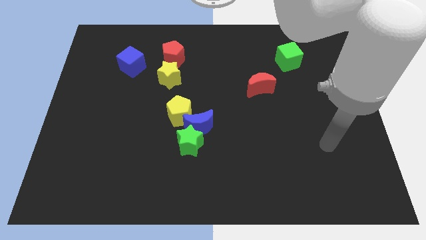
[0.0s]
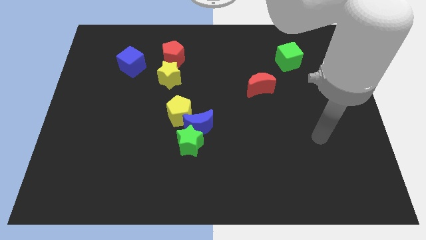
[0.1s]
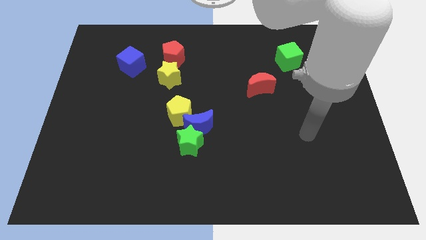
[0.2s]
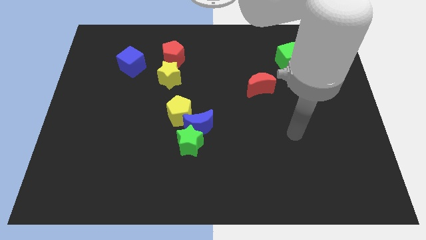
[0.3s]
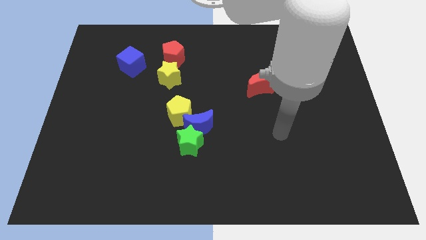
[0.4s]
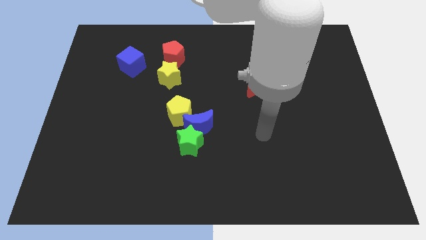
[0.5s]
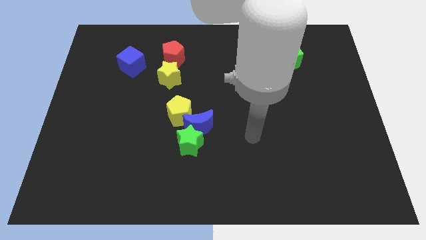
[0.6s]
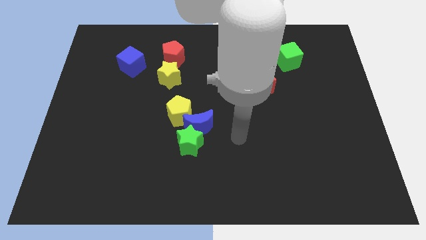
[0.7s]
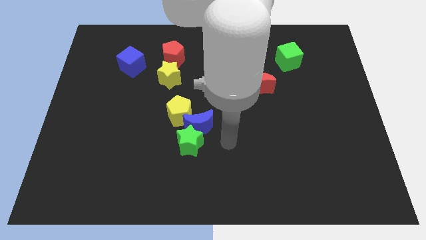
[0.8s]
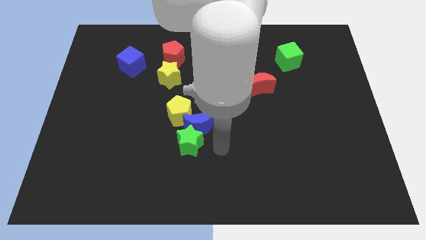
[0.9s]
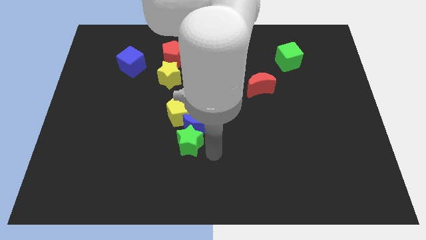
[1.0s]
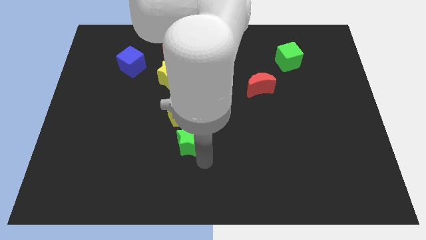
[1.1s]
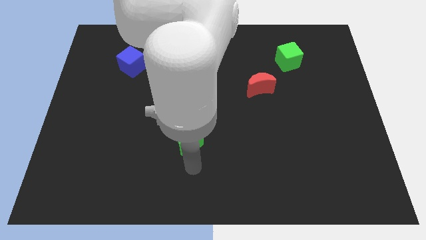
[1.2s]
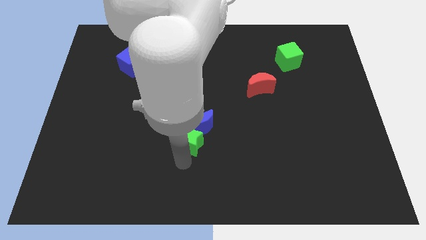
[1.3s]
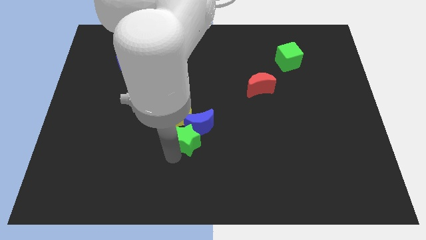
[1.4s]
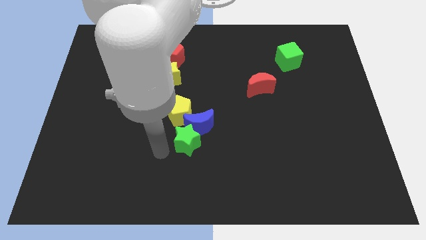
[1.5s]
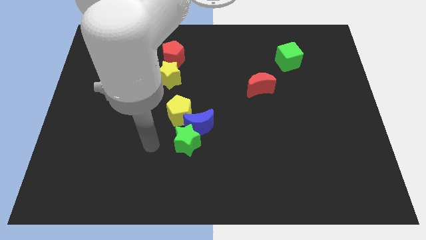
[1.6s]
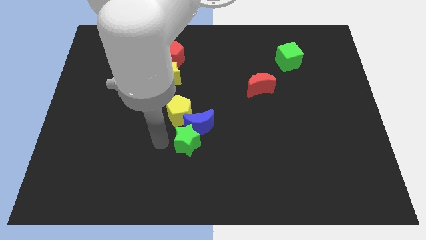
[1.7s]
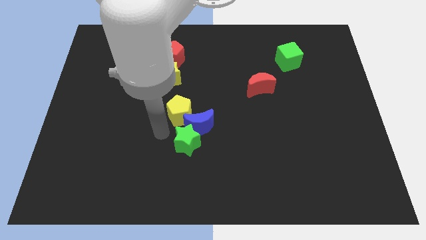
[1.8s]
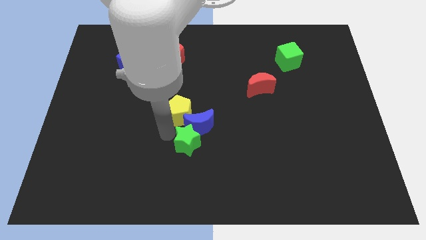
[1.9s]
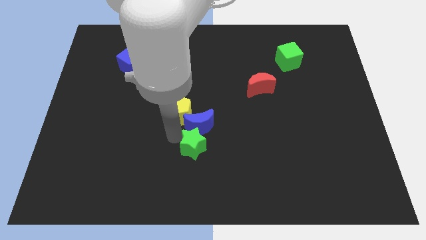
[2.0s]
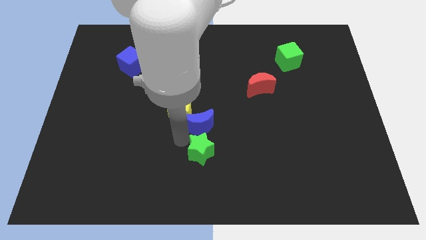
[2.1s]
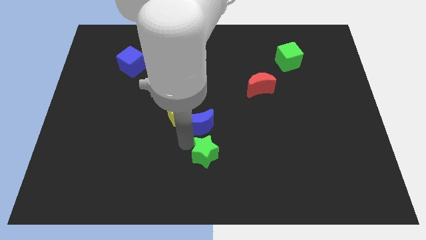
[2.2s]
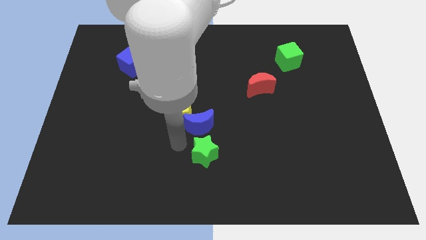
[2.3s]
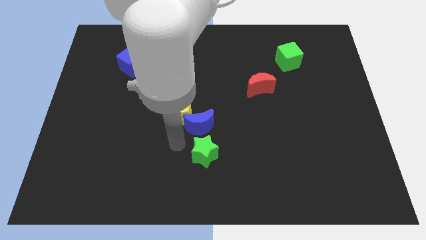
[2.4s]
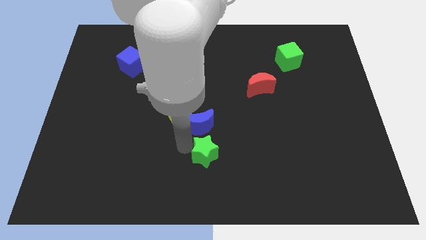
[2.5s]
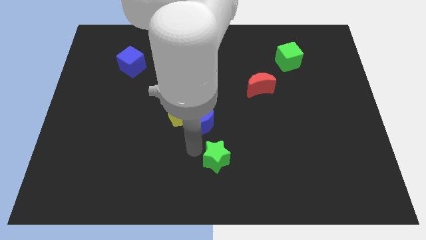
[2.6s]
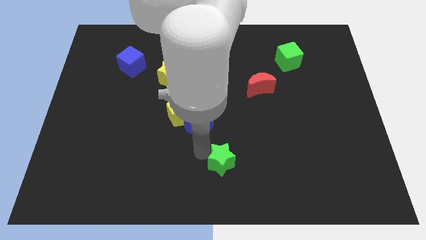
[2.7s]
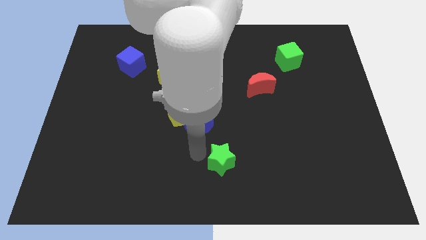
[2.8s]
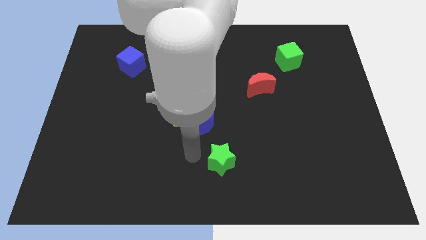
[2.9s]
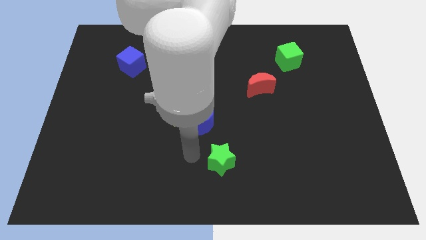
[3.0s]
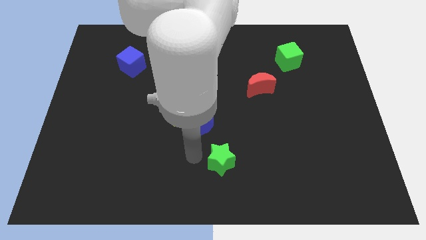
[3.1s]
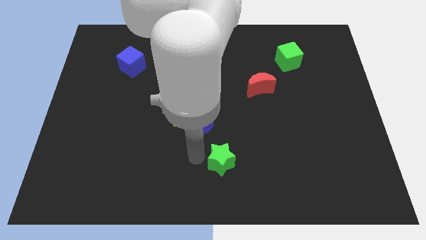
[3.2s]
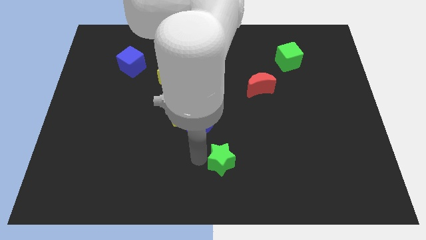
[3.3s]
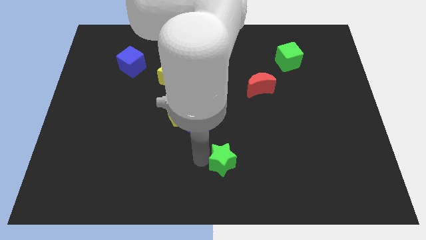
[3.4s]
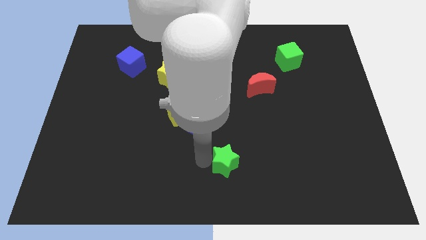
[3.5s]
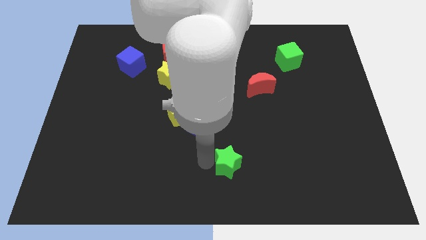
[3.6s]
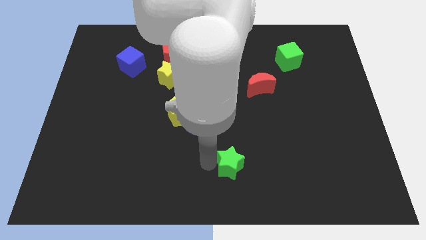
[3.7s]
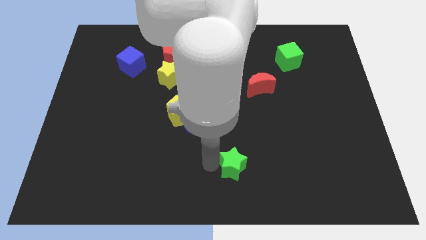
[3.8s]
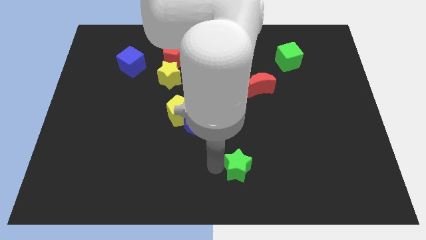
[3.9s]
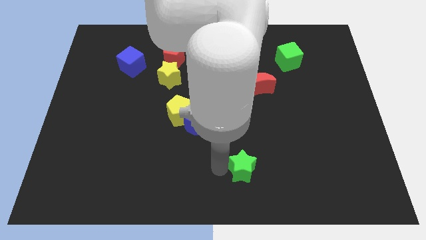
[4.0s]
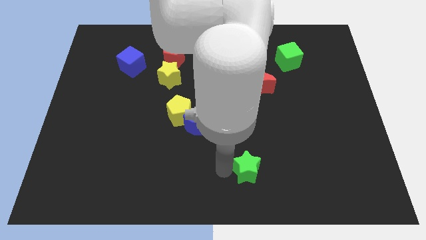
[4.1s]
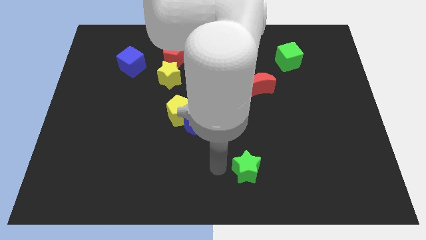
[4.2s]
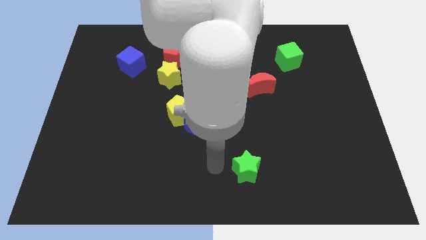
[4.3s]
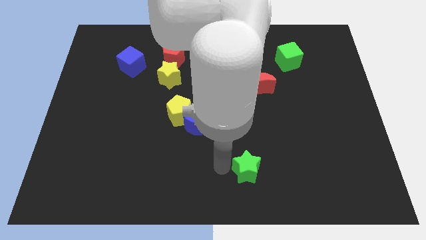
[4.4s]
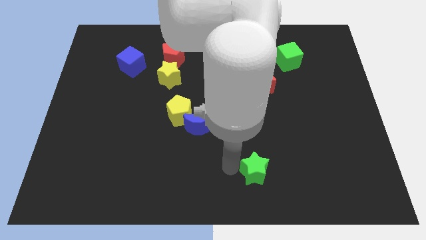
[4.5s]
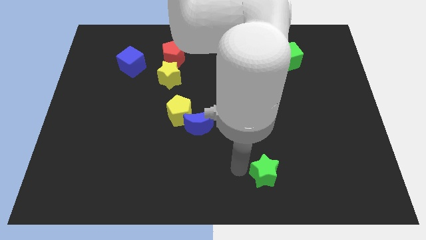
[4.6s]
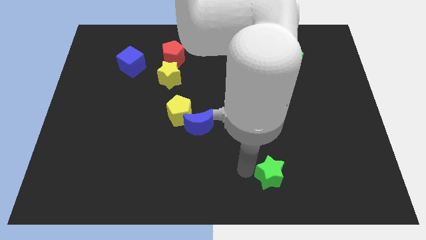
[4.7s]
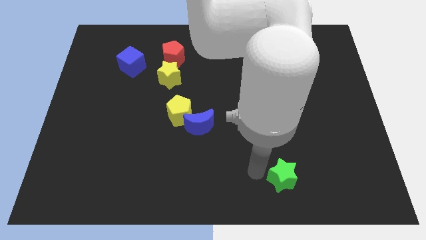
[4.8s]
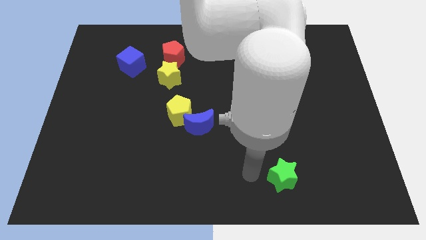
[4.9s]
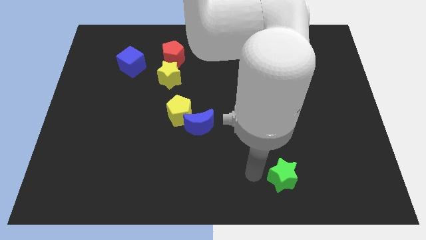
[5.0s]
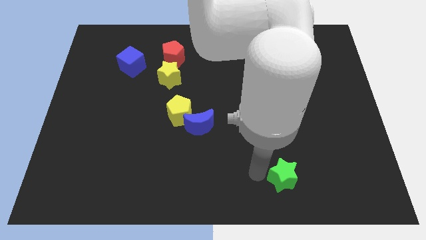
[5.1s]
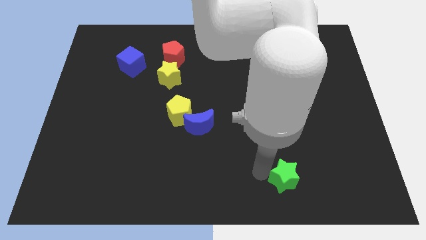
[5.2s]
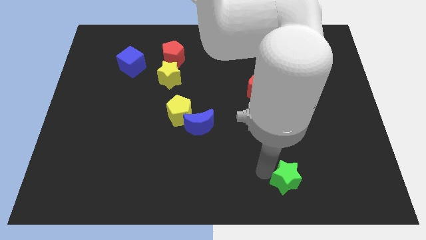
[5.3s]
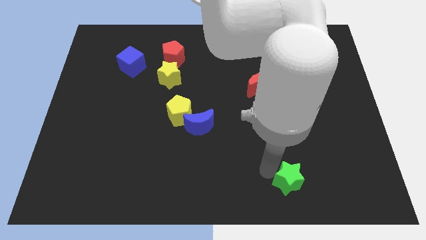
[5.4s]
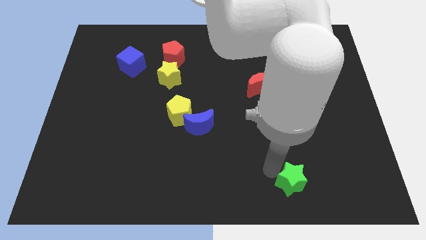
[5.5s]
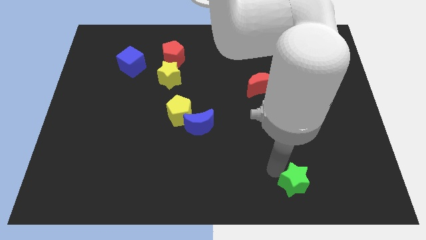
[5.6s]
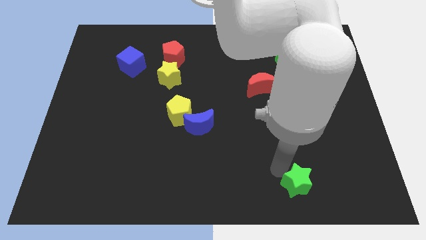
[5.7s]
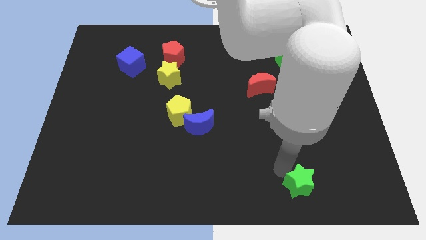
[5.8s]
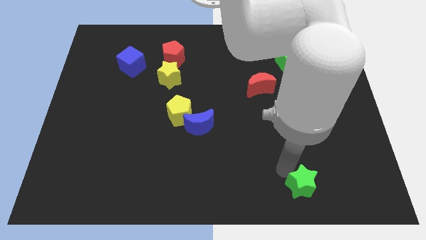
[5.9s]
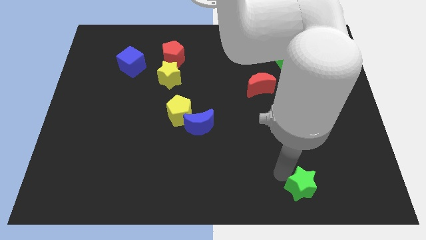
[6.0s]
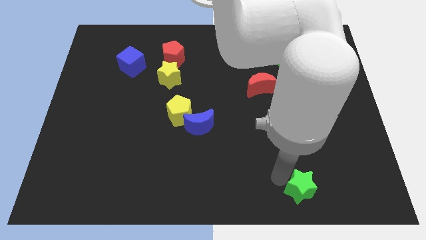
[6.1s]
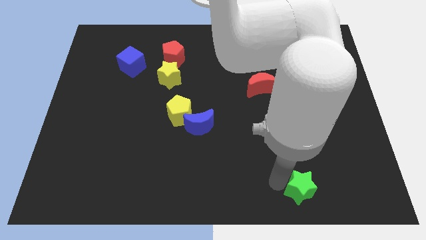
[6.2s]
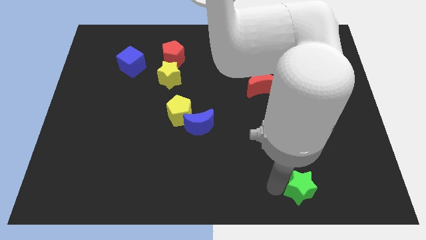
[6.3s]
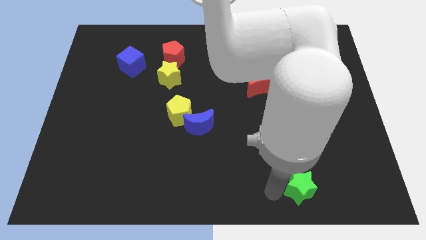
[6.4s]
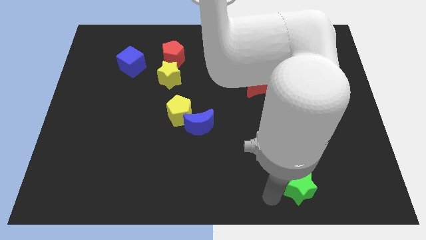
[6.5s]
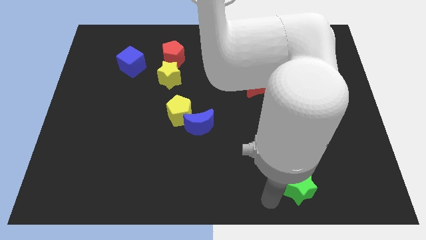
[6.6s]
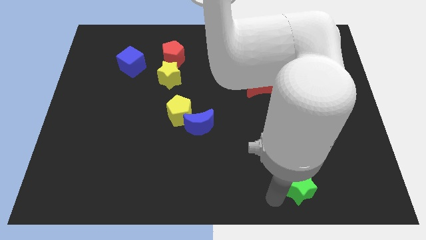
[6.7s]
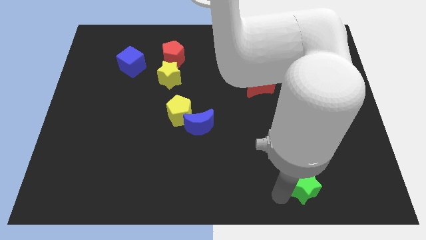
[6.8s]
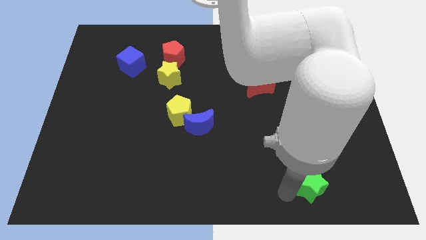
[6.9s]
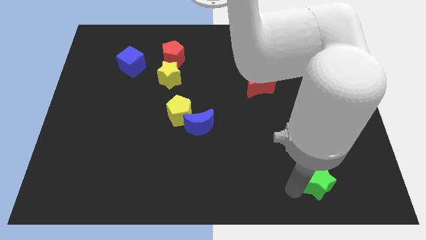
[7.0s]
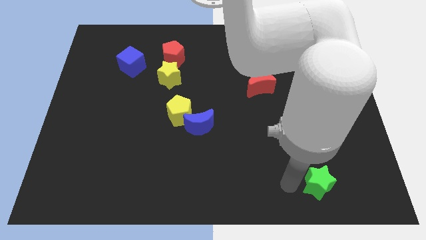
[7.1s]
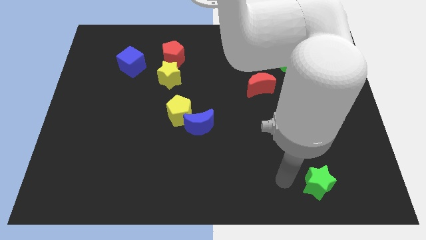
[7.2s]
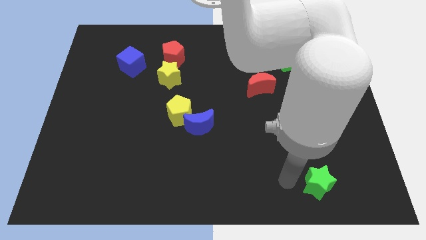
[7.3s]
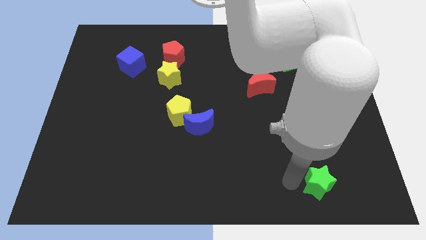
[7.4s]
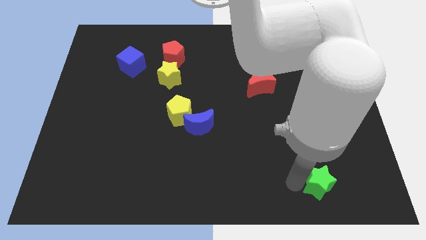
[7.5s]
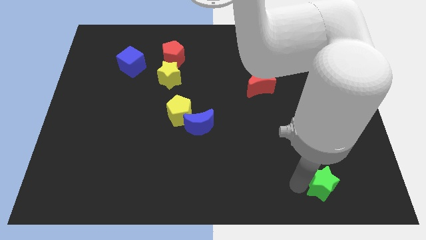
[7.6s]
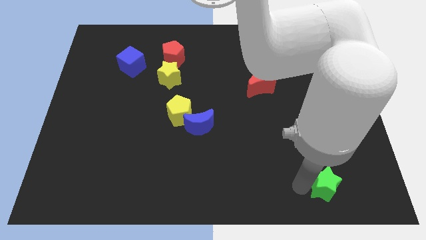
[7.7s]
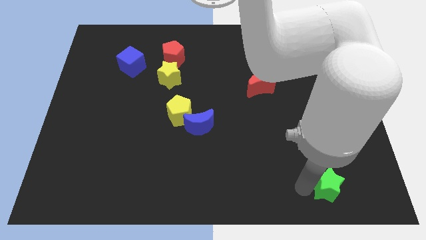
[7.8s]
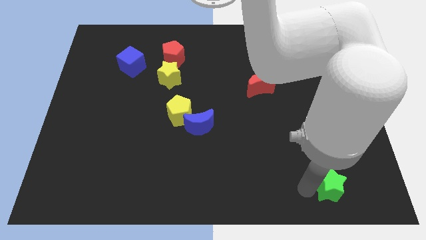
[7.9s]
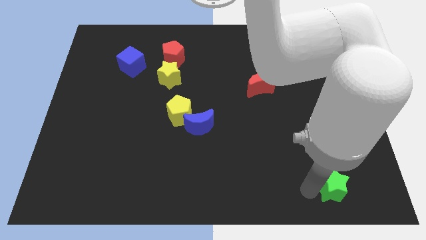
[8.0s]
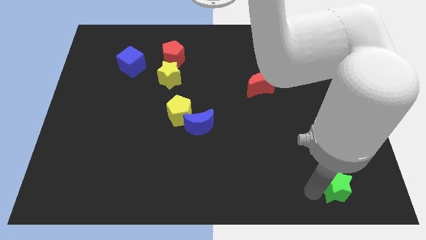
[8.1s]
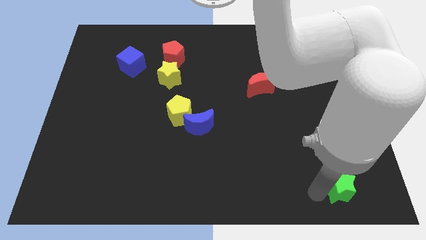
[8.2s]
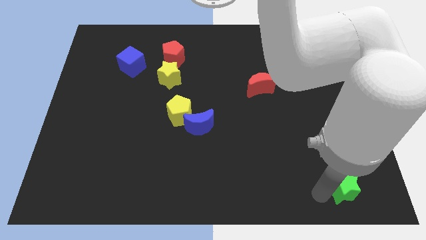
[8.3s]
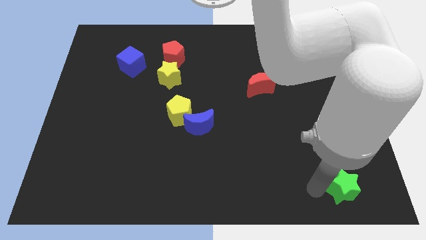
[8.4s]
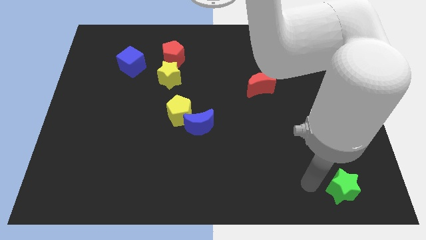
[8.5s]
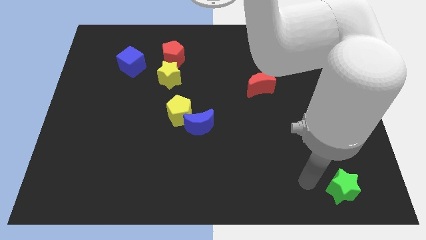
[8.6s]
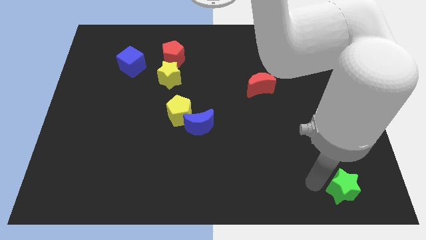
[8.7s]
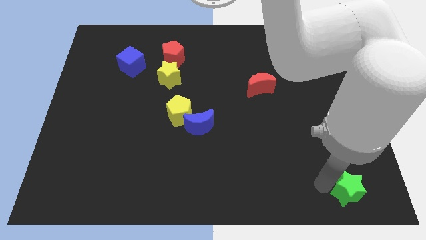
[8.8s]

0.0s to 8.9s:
put the green star to the lower right corner
